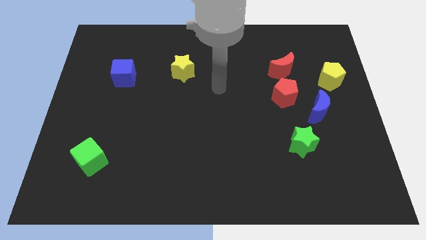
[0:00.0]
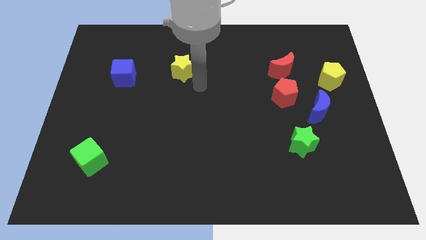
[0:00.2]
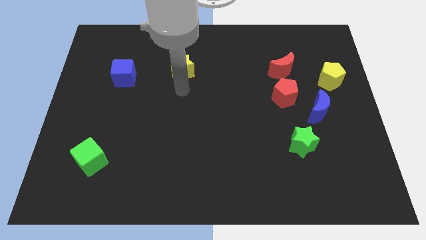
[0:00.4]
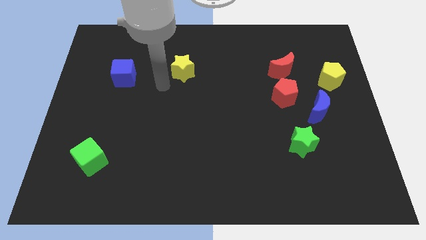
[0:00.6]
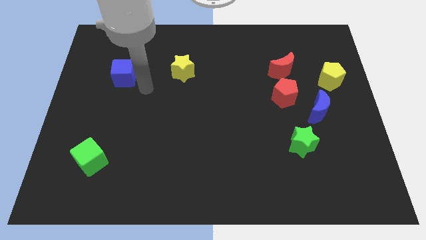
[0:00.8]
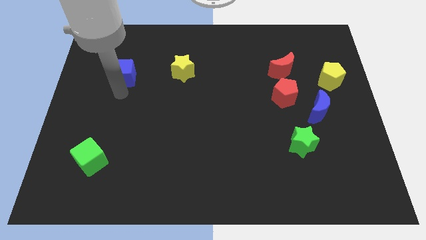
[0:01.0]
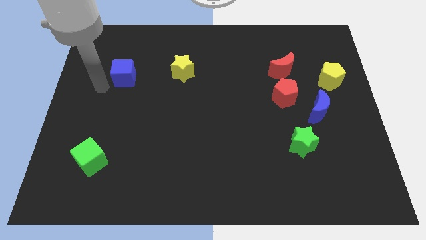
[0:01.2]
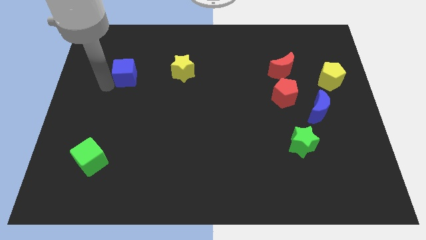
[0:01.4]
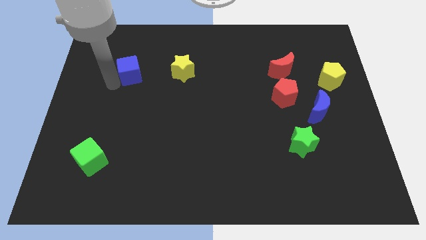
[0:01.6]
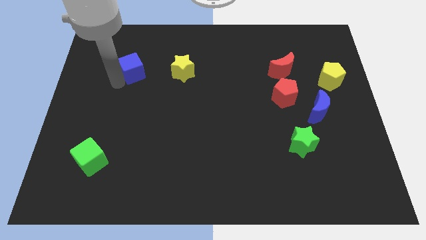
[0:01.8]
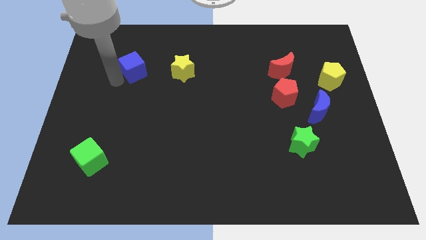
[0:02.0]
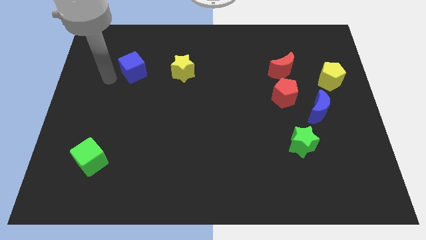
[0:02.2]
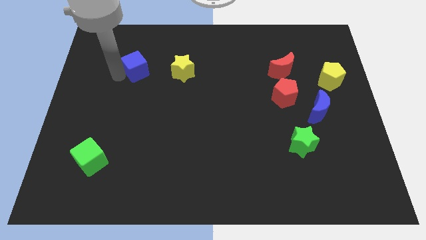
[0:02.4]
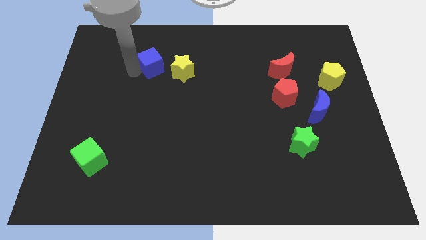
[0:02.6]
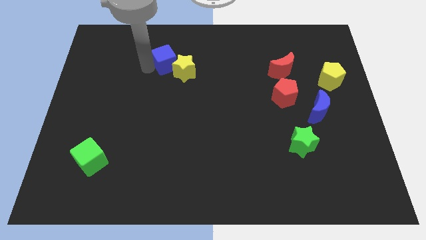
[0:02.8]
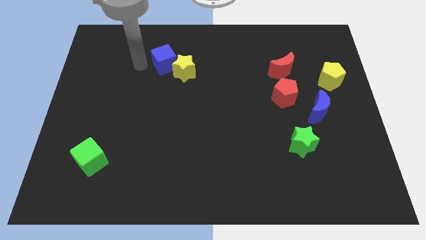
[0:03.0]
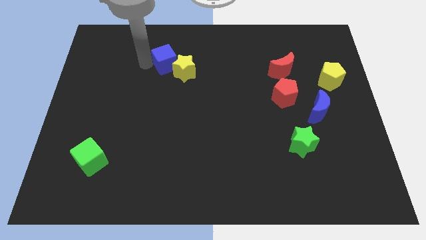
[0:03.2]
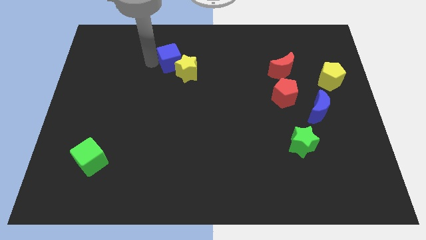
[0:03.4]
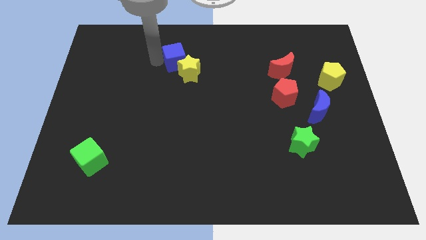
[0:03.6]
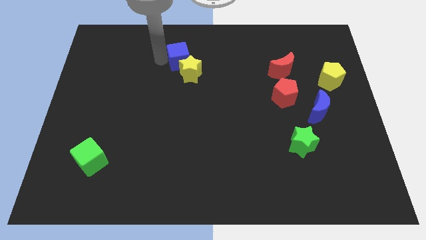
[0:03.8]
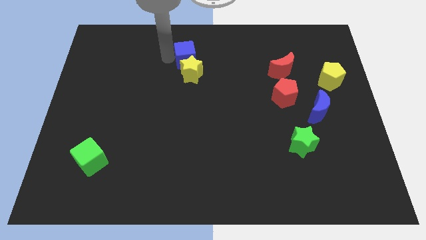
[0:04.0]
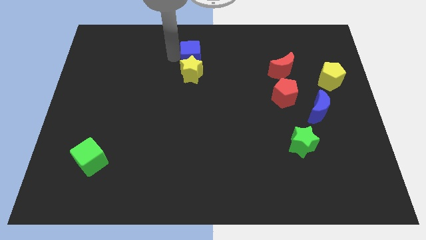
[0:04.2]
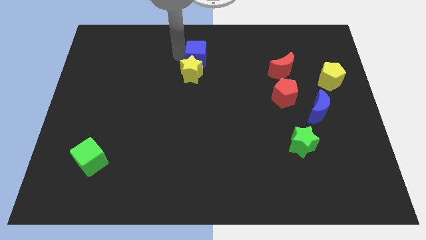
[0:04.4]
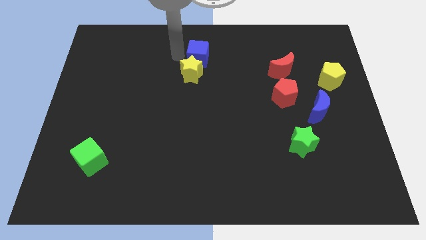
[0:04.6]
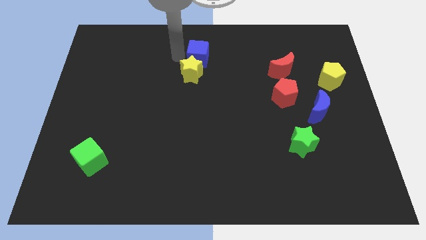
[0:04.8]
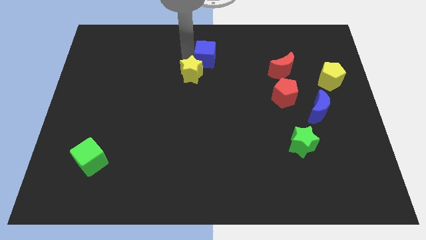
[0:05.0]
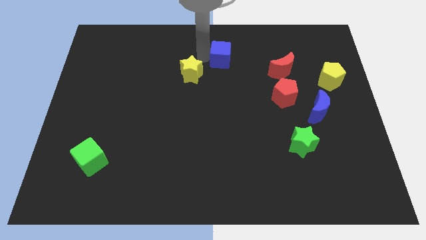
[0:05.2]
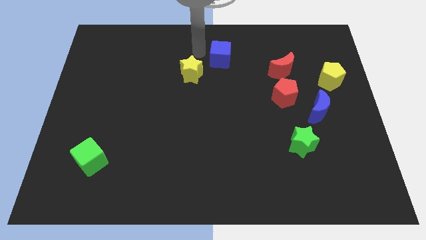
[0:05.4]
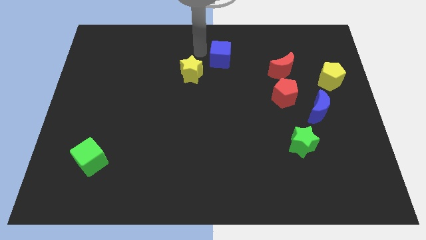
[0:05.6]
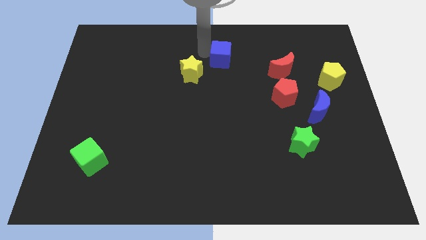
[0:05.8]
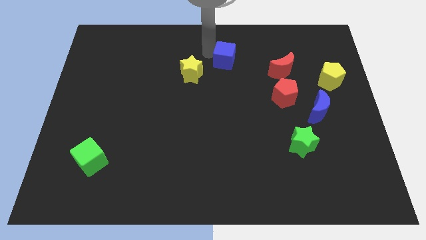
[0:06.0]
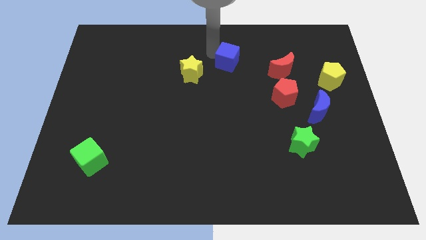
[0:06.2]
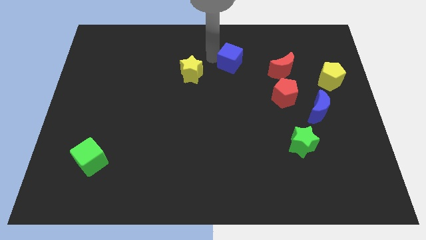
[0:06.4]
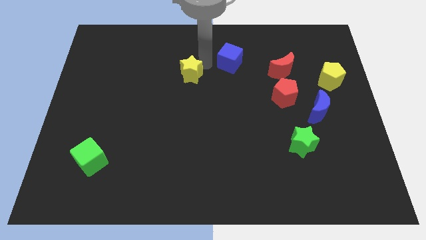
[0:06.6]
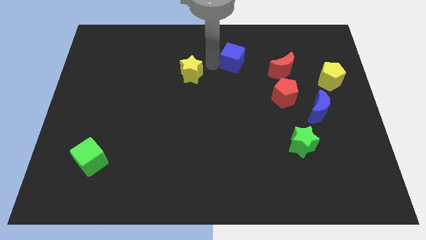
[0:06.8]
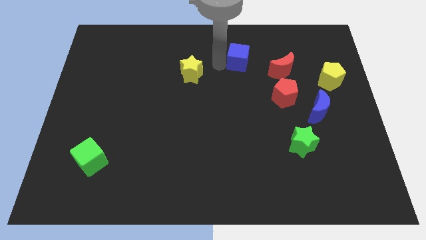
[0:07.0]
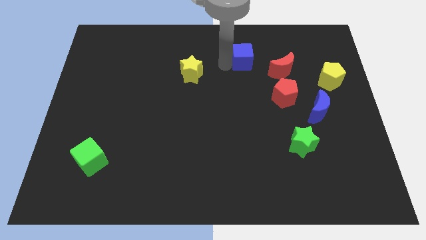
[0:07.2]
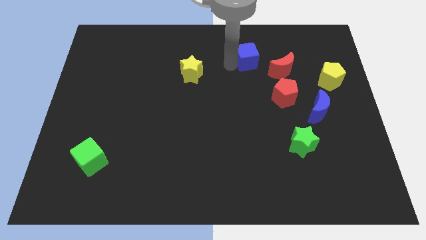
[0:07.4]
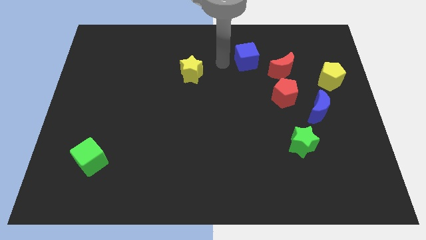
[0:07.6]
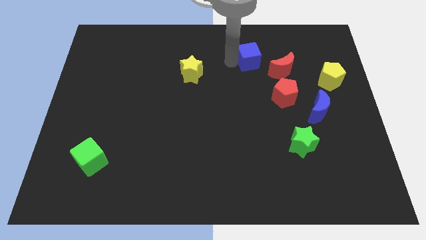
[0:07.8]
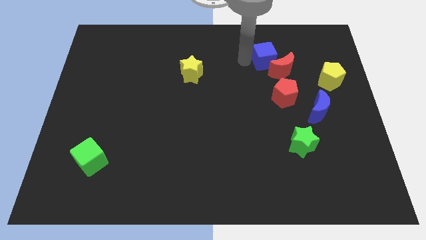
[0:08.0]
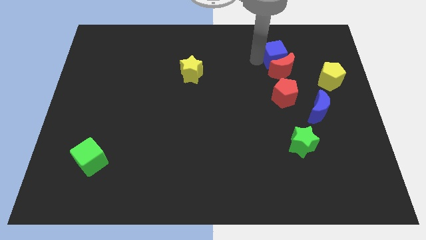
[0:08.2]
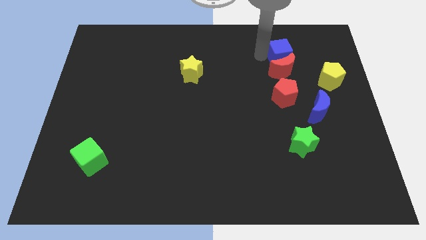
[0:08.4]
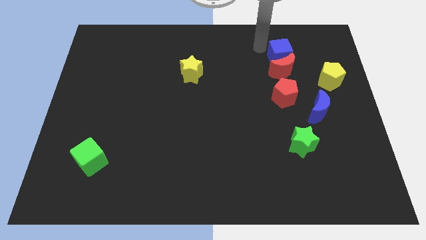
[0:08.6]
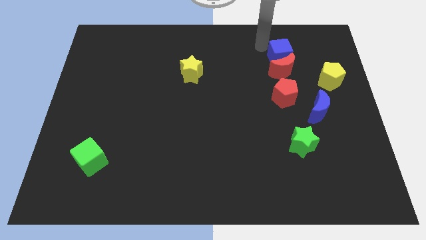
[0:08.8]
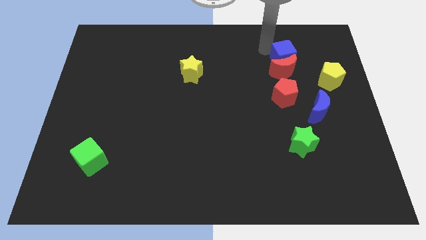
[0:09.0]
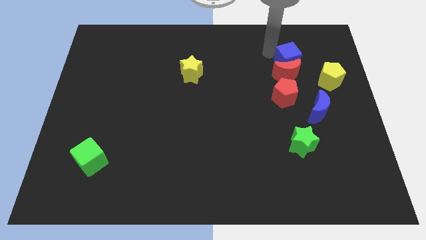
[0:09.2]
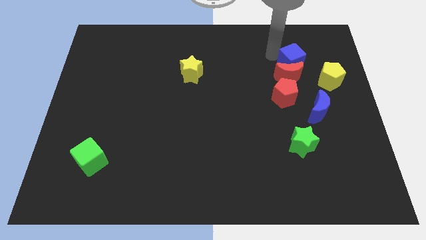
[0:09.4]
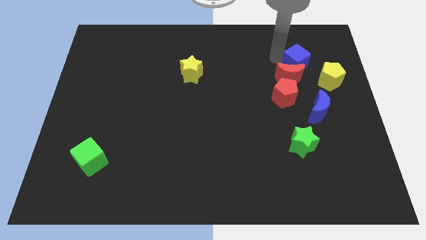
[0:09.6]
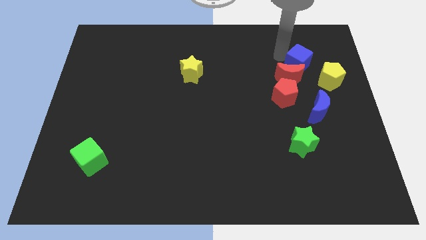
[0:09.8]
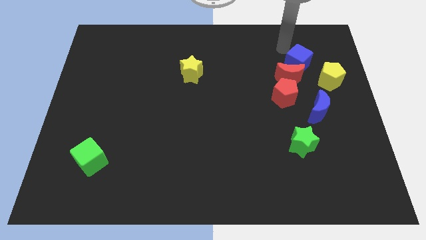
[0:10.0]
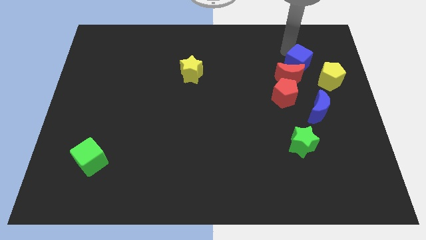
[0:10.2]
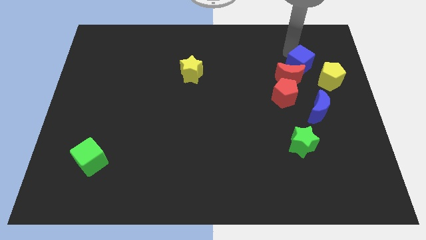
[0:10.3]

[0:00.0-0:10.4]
move the blue cube to the top side of the blue moon

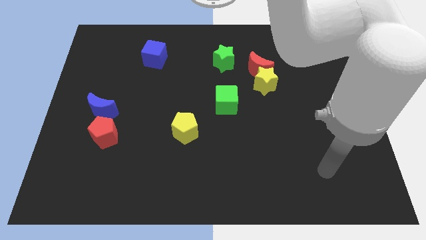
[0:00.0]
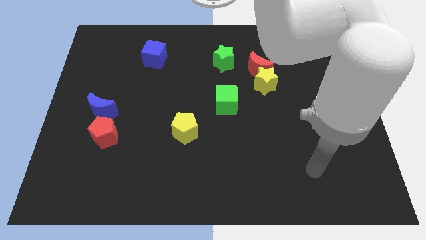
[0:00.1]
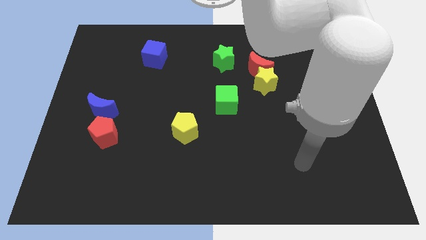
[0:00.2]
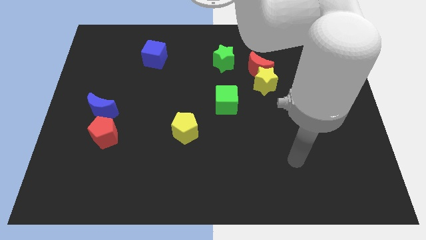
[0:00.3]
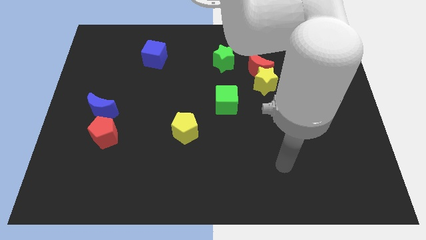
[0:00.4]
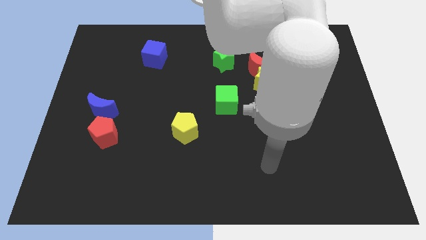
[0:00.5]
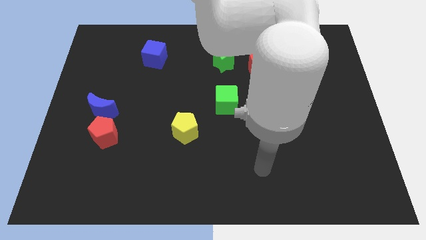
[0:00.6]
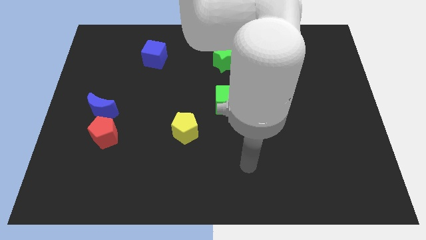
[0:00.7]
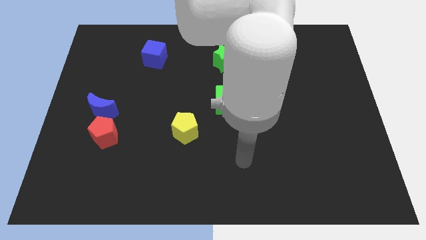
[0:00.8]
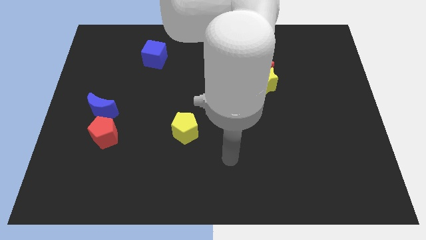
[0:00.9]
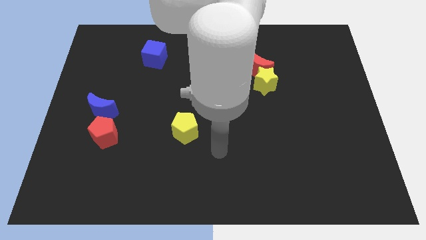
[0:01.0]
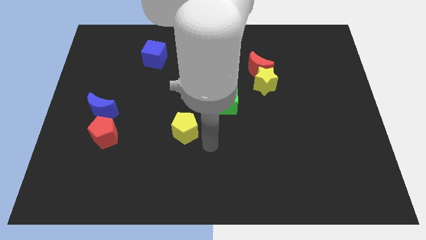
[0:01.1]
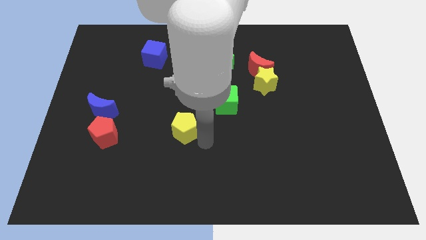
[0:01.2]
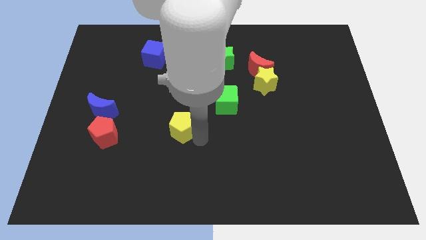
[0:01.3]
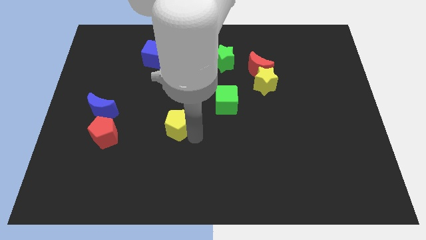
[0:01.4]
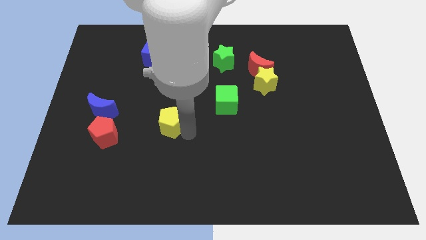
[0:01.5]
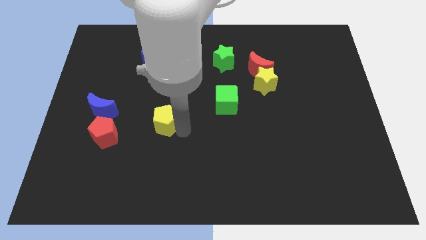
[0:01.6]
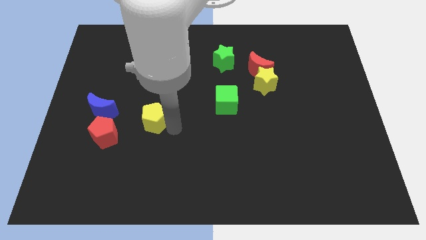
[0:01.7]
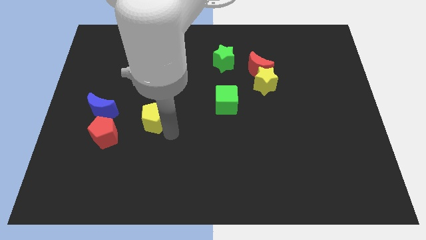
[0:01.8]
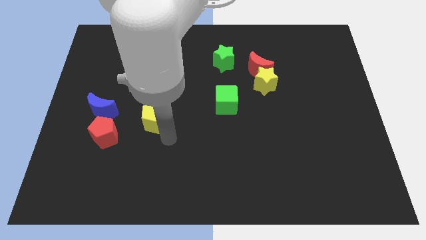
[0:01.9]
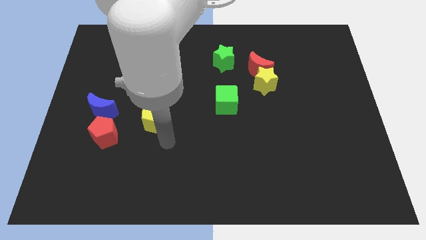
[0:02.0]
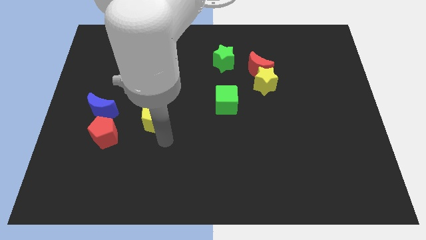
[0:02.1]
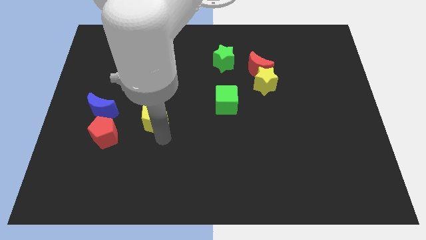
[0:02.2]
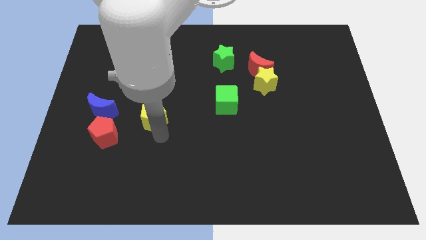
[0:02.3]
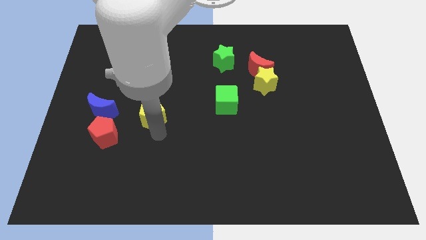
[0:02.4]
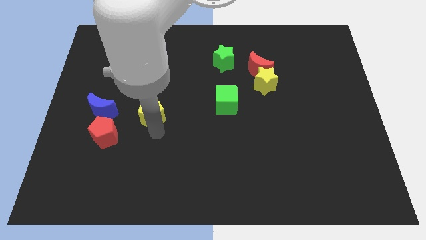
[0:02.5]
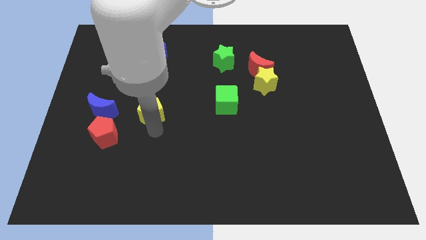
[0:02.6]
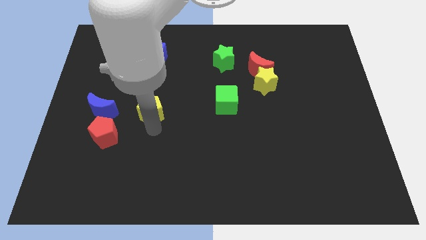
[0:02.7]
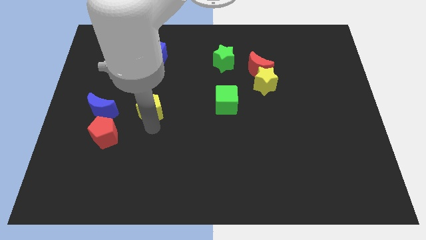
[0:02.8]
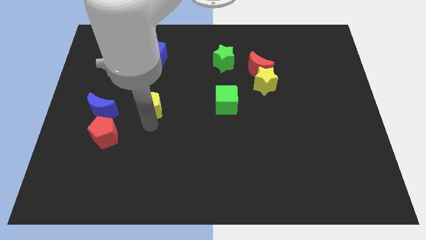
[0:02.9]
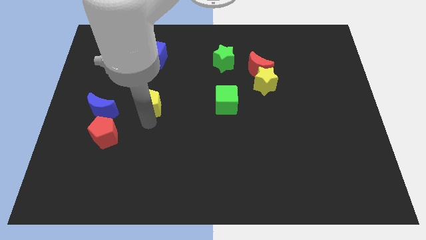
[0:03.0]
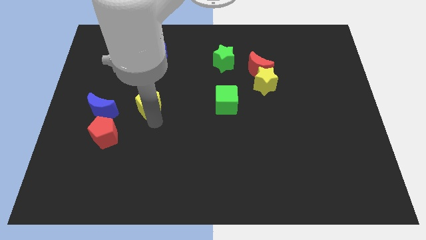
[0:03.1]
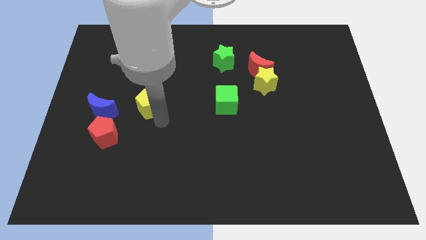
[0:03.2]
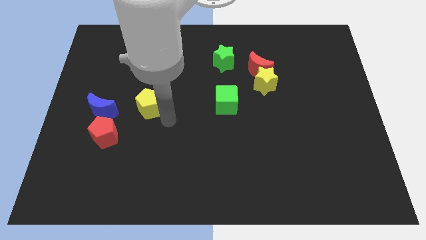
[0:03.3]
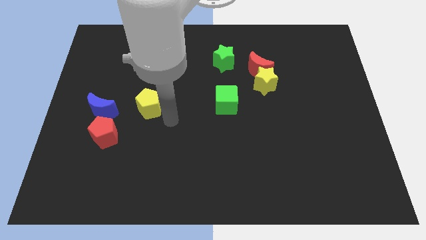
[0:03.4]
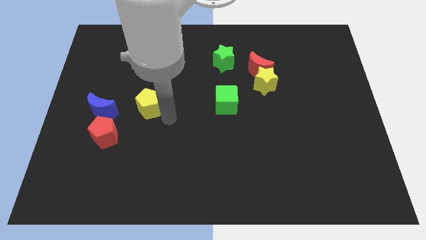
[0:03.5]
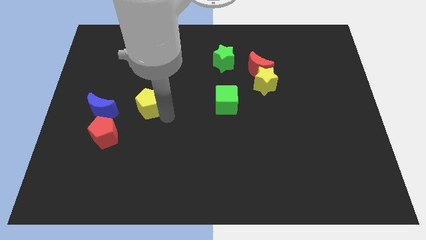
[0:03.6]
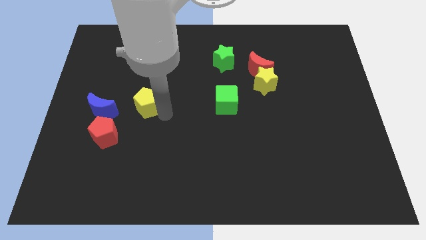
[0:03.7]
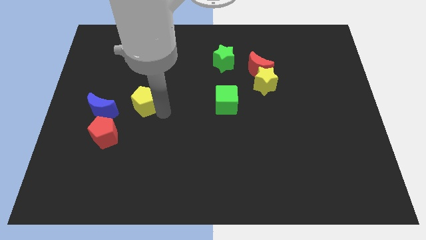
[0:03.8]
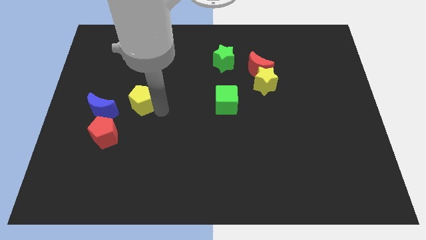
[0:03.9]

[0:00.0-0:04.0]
put the yellow pentagon to the top right of the blue moon
